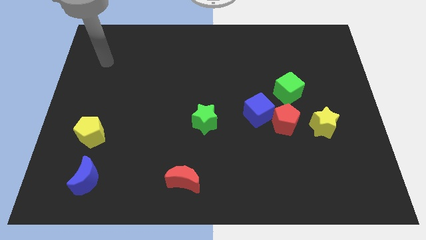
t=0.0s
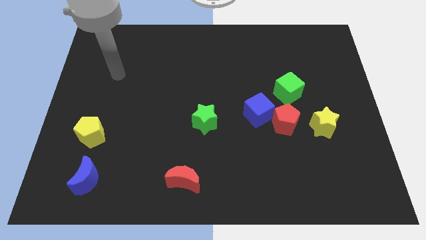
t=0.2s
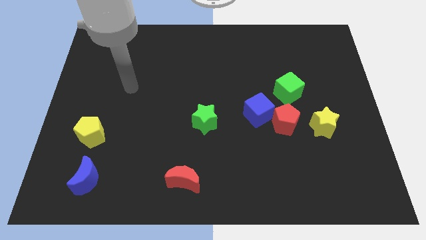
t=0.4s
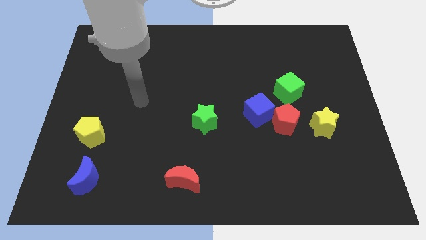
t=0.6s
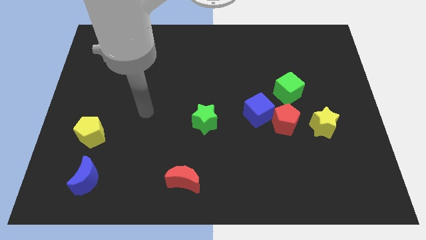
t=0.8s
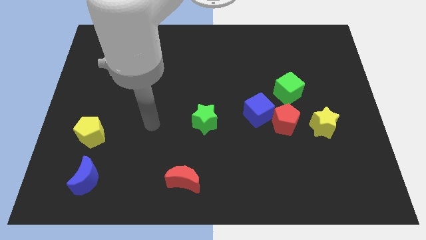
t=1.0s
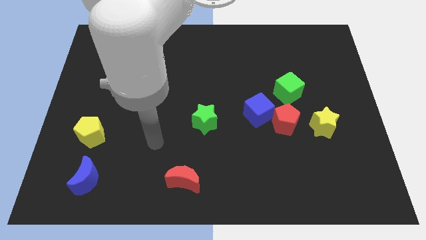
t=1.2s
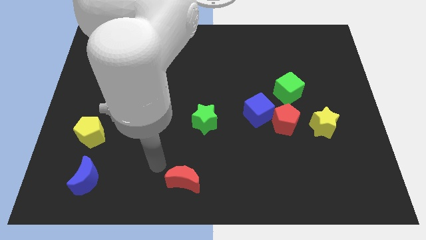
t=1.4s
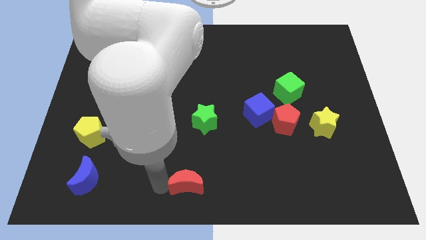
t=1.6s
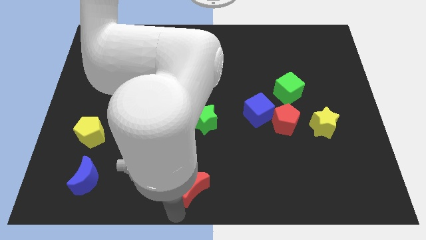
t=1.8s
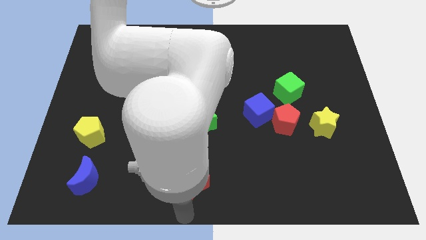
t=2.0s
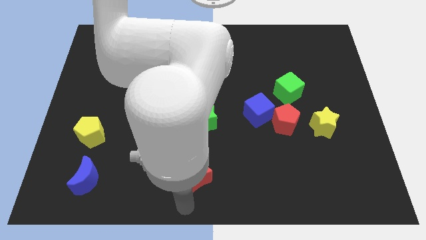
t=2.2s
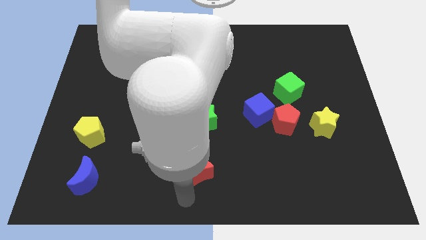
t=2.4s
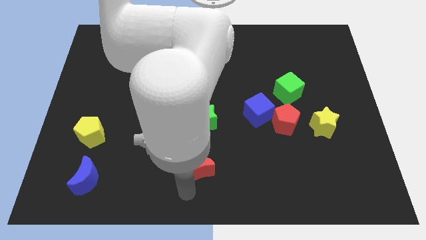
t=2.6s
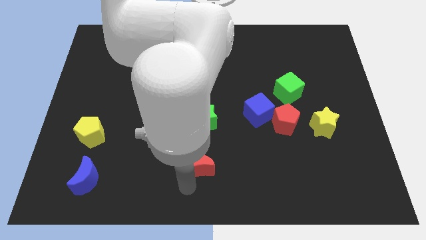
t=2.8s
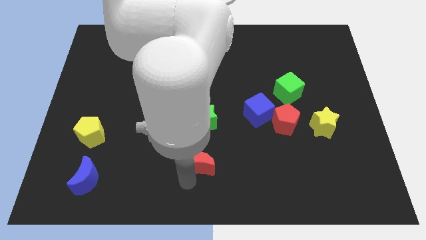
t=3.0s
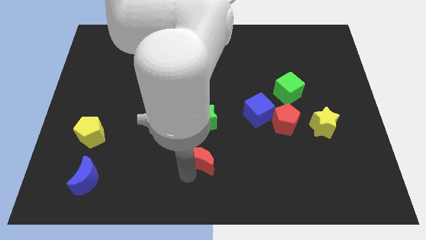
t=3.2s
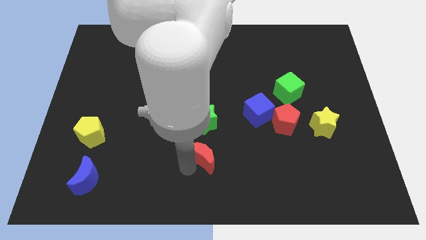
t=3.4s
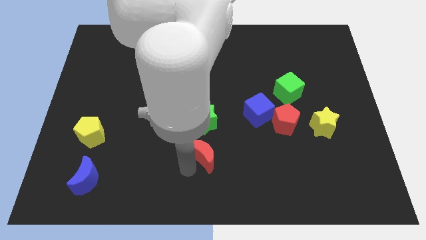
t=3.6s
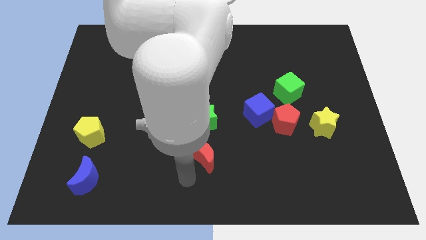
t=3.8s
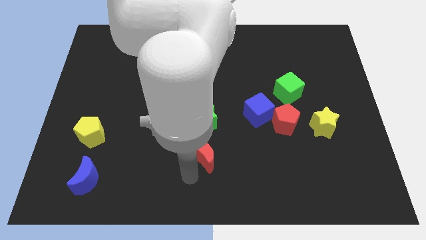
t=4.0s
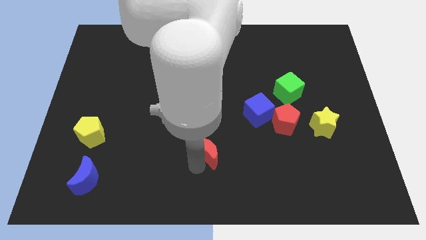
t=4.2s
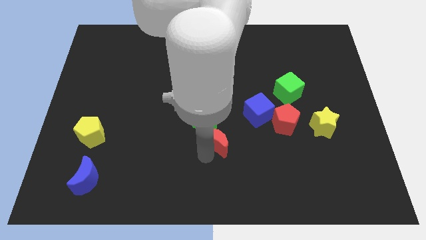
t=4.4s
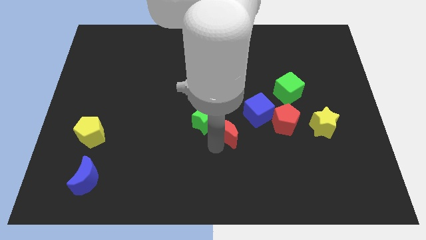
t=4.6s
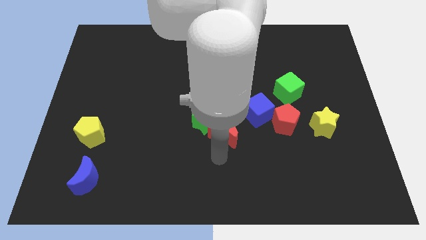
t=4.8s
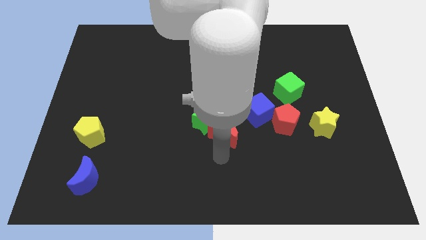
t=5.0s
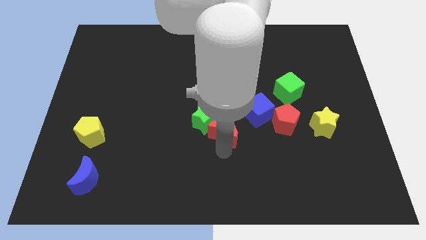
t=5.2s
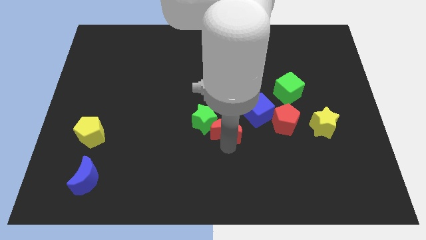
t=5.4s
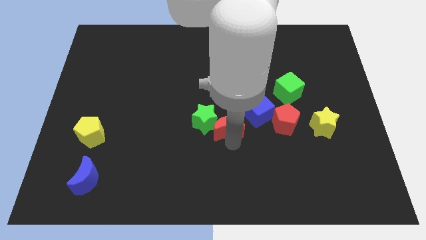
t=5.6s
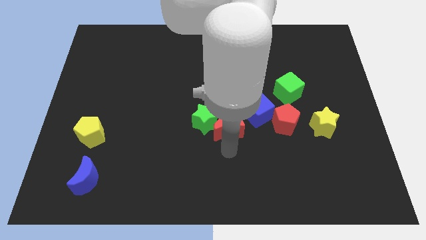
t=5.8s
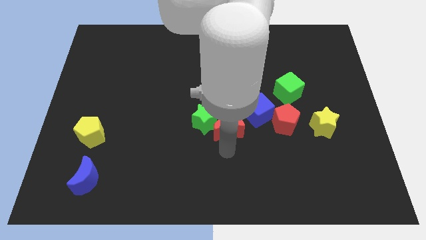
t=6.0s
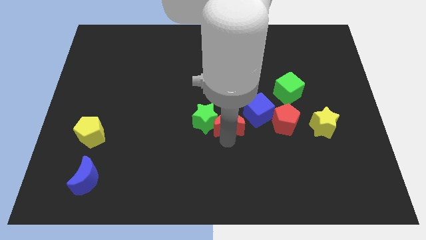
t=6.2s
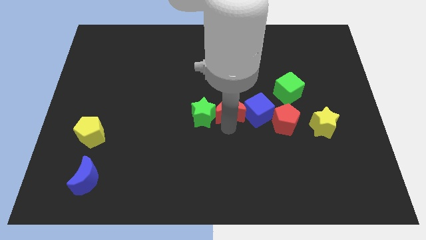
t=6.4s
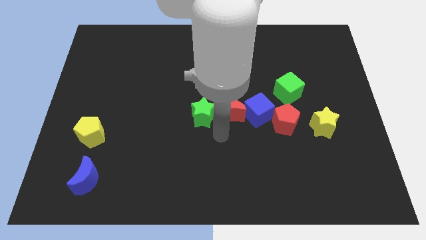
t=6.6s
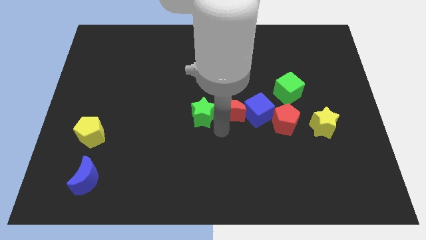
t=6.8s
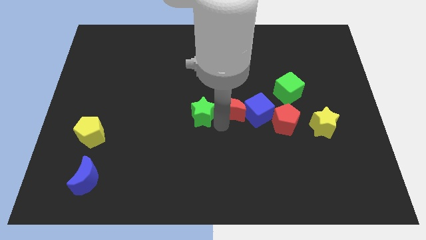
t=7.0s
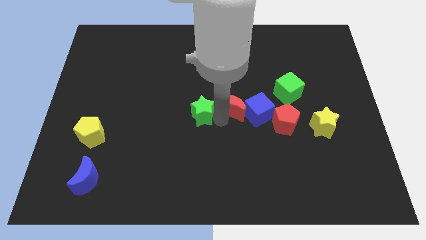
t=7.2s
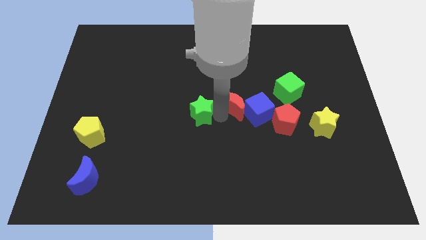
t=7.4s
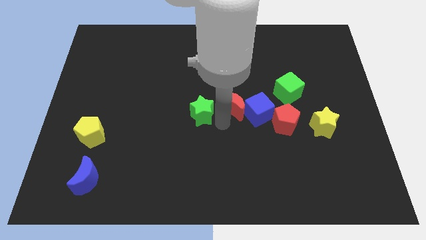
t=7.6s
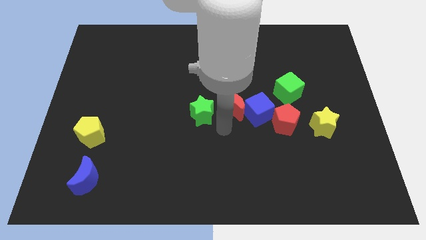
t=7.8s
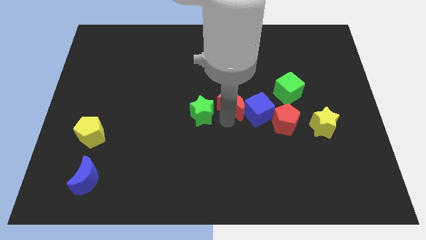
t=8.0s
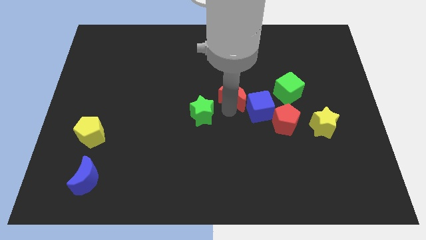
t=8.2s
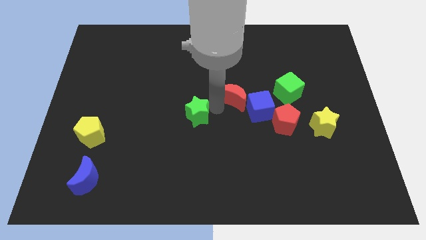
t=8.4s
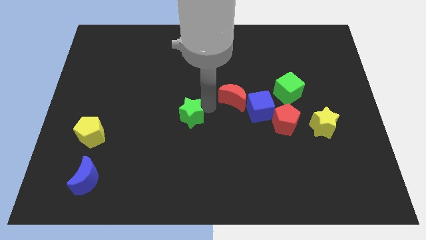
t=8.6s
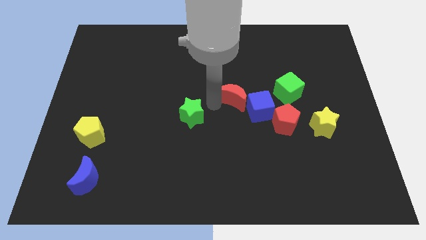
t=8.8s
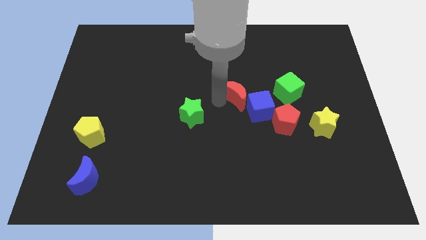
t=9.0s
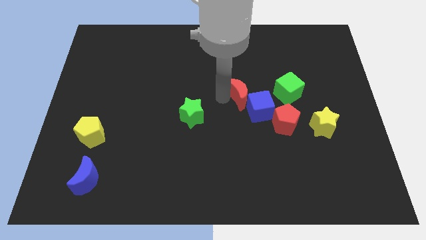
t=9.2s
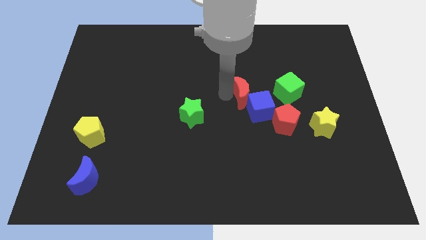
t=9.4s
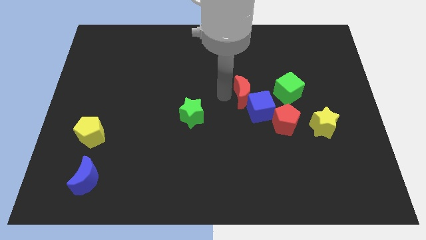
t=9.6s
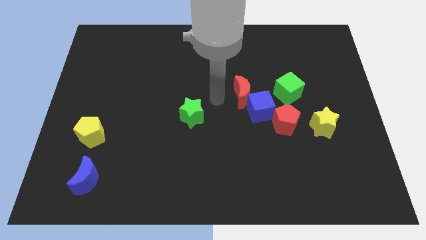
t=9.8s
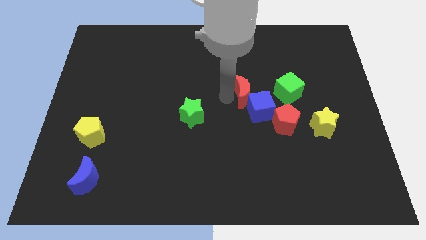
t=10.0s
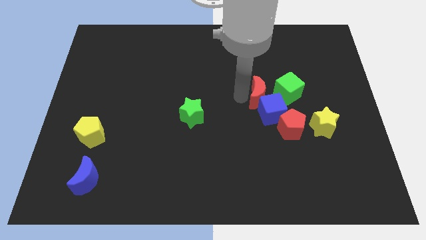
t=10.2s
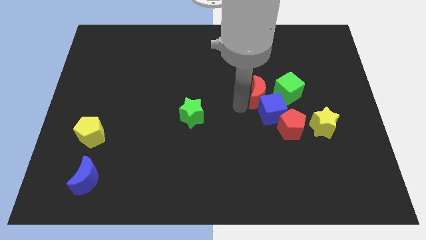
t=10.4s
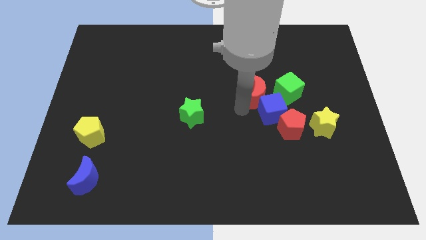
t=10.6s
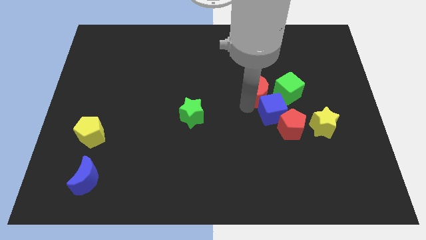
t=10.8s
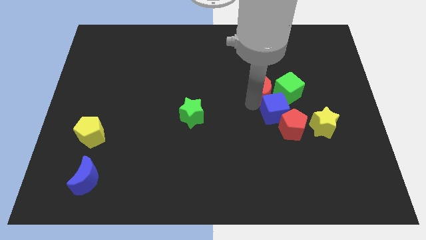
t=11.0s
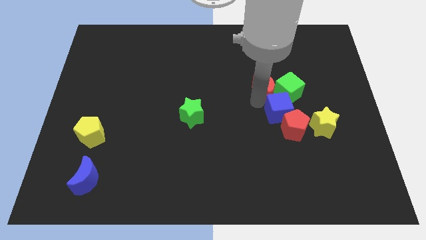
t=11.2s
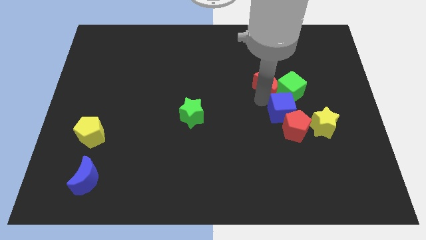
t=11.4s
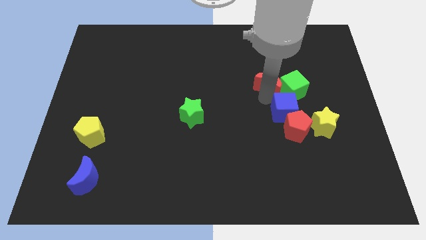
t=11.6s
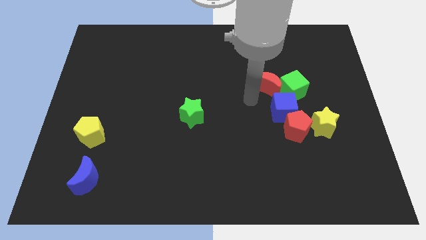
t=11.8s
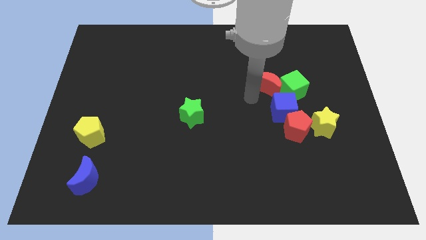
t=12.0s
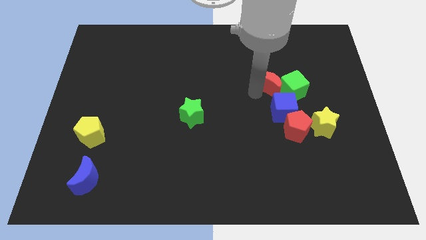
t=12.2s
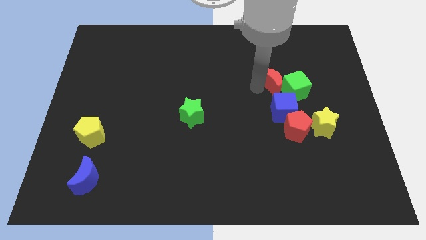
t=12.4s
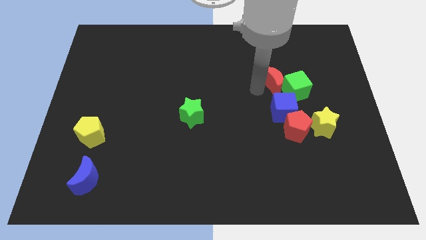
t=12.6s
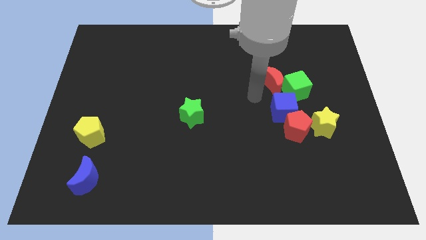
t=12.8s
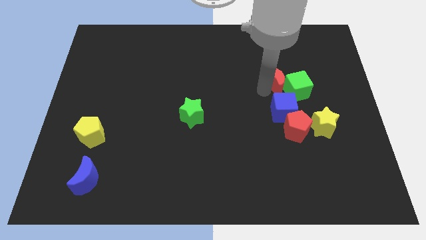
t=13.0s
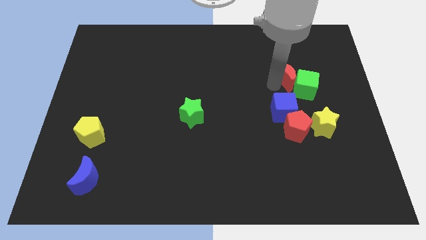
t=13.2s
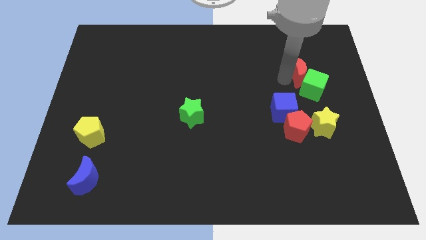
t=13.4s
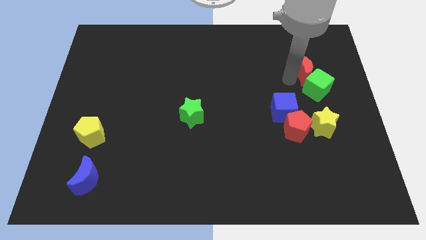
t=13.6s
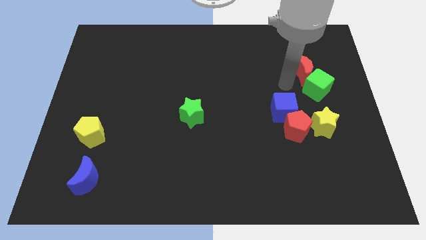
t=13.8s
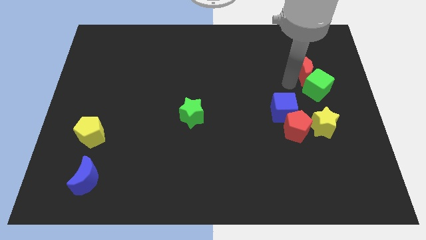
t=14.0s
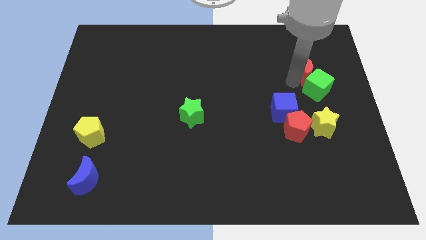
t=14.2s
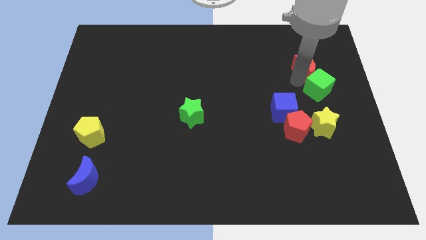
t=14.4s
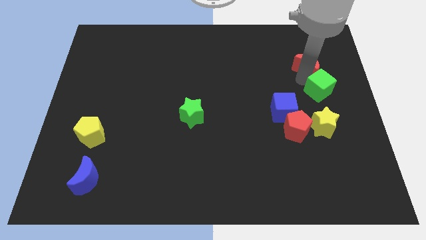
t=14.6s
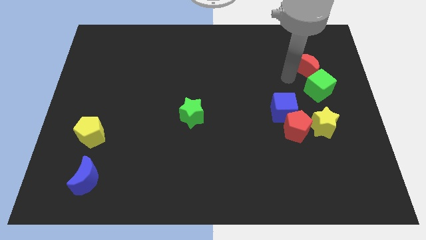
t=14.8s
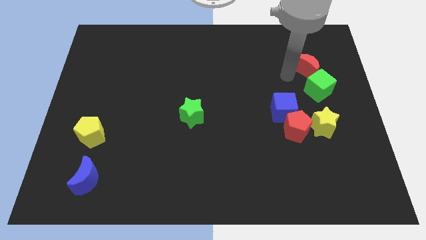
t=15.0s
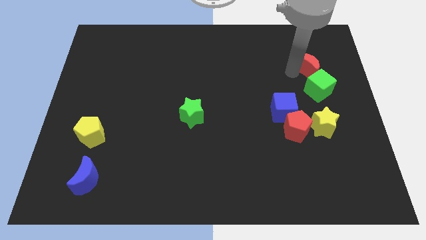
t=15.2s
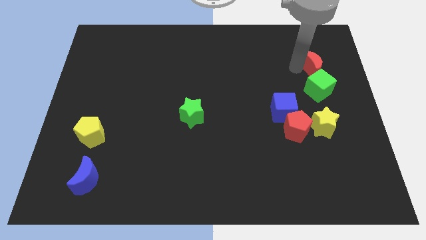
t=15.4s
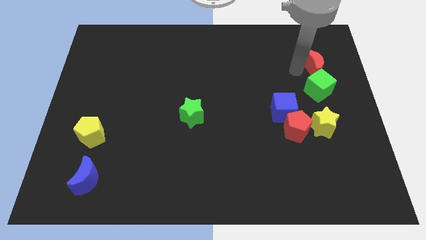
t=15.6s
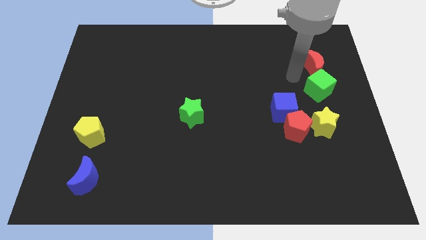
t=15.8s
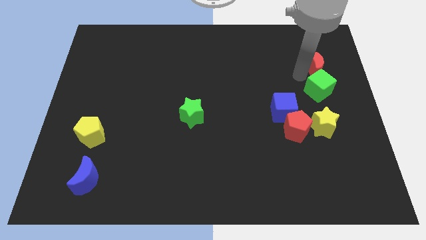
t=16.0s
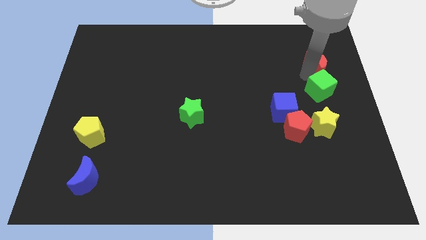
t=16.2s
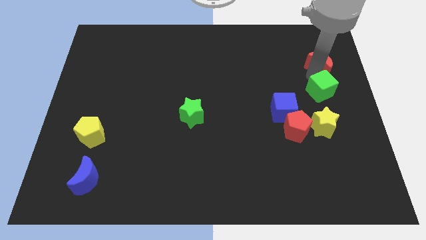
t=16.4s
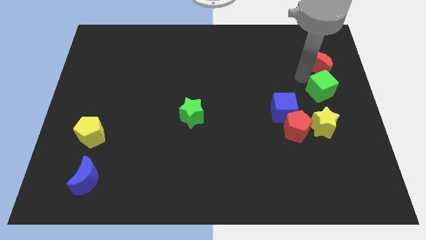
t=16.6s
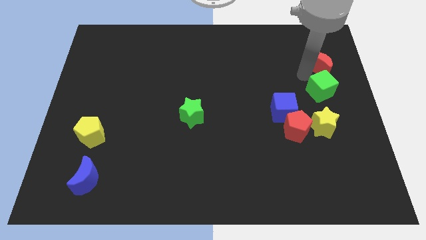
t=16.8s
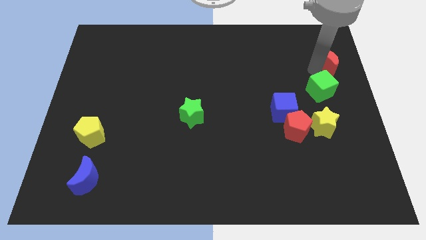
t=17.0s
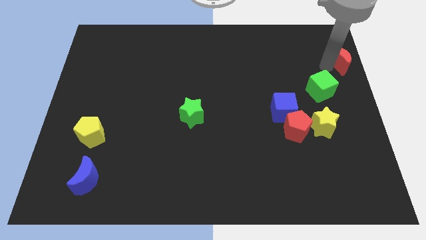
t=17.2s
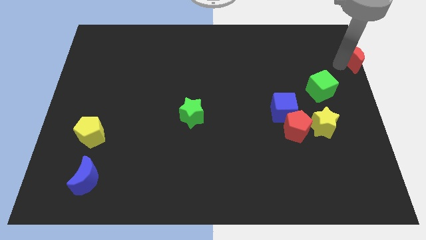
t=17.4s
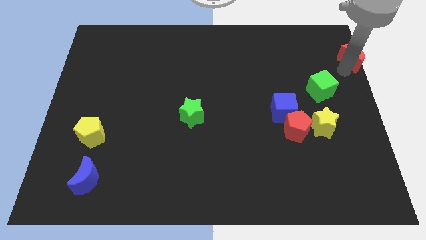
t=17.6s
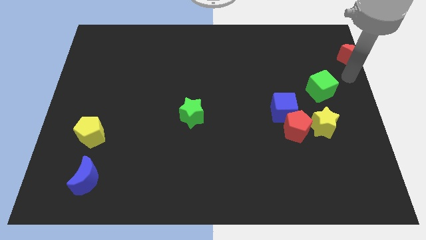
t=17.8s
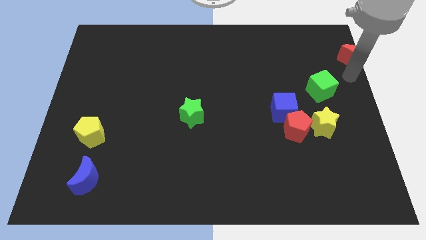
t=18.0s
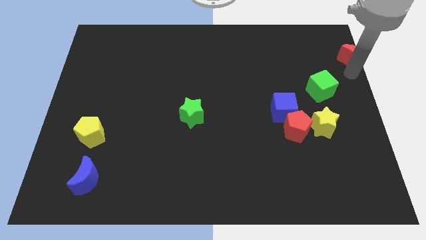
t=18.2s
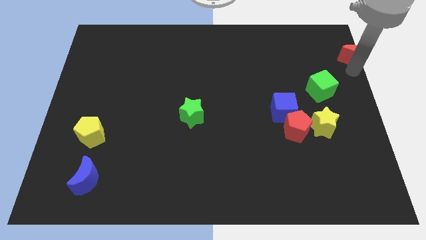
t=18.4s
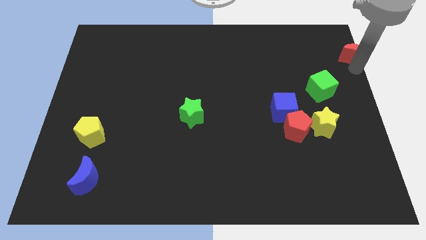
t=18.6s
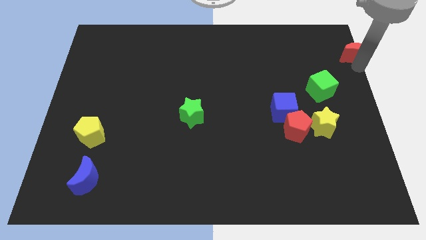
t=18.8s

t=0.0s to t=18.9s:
move the red moon to the top right of the board
